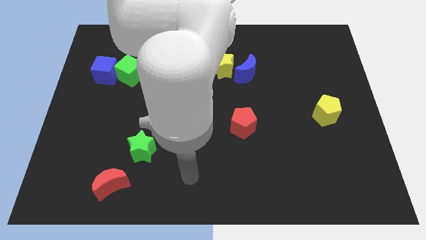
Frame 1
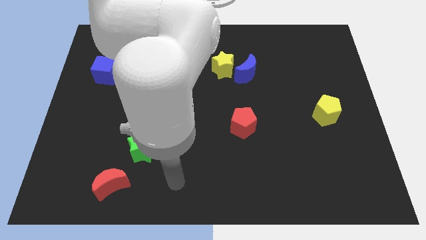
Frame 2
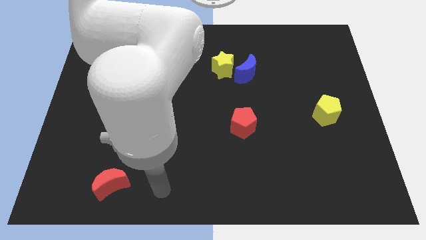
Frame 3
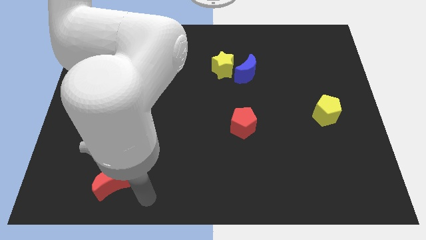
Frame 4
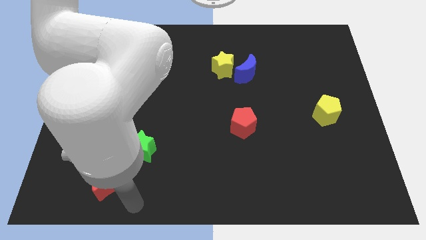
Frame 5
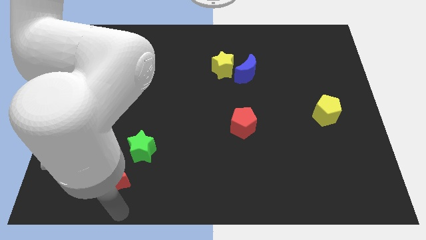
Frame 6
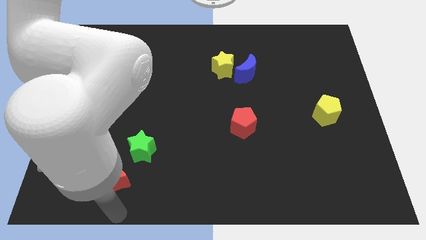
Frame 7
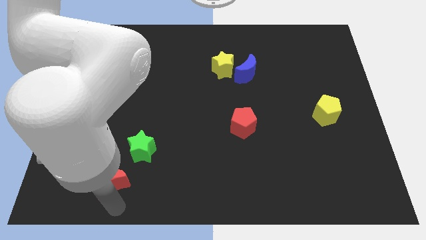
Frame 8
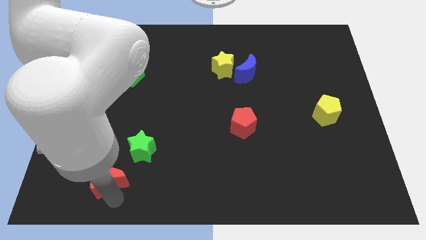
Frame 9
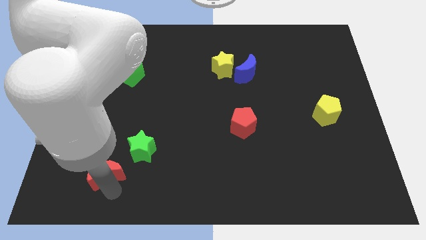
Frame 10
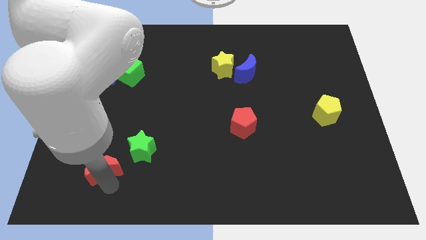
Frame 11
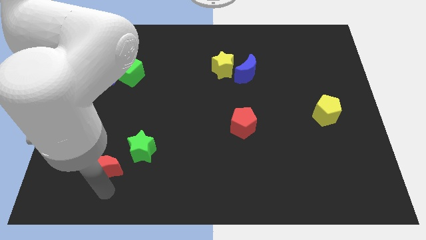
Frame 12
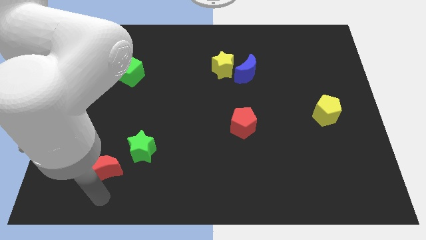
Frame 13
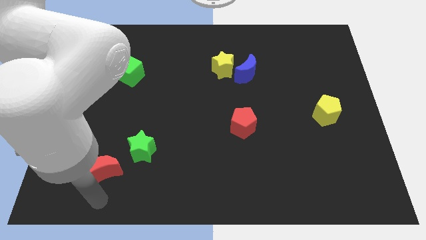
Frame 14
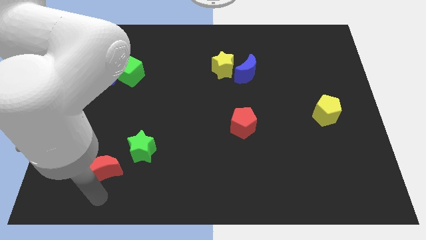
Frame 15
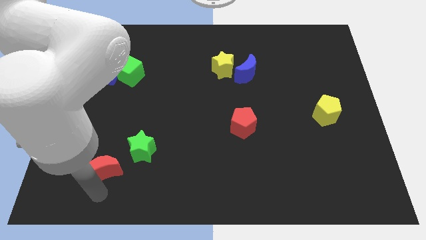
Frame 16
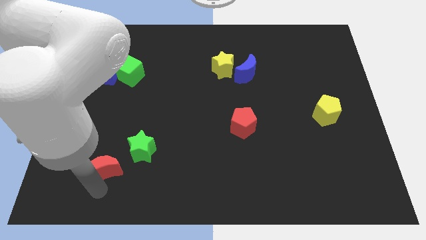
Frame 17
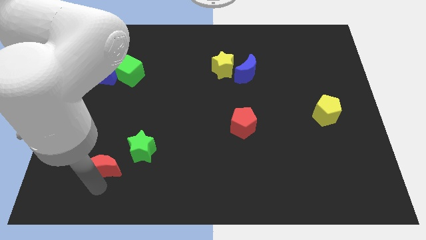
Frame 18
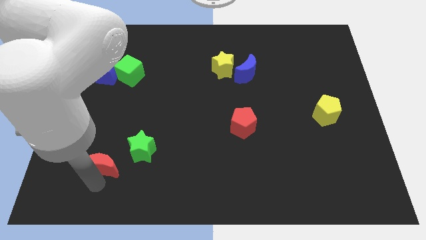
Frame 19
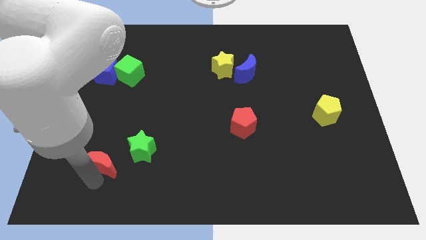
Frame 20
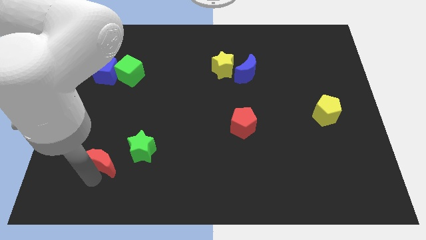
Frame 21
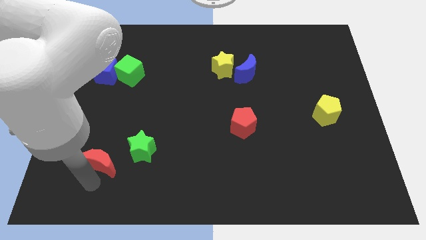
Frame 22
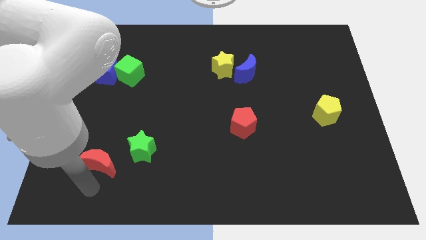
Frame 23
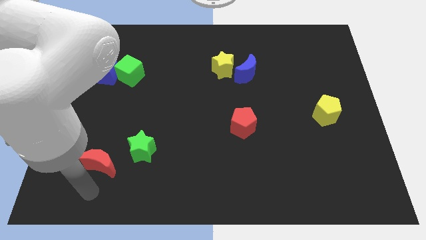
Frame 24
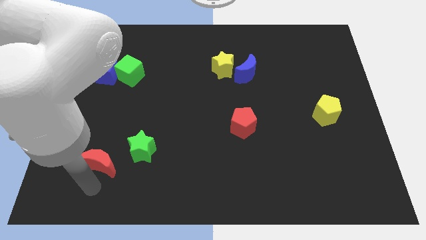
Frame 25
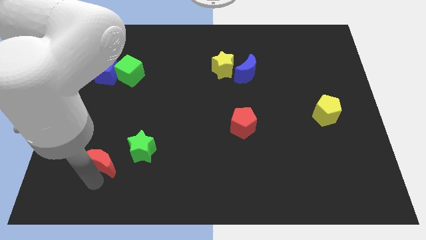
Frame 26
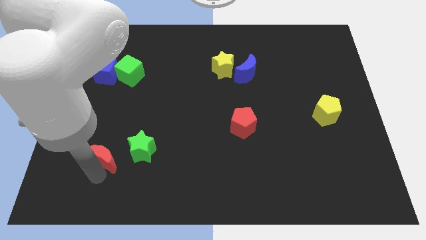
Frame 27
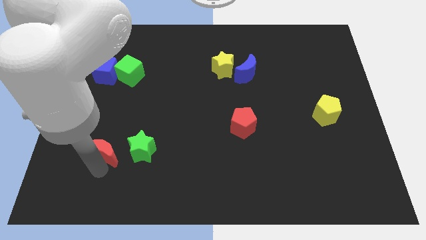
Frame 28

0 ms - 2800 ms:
move the red moon up a little bit

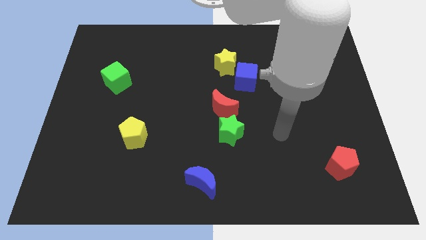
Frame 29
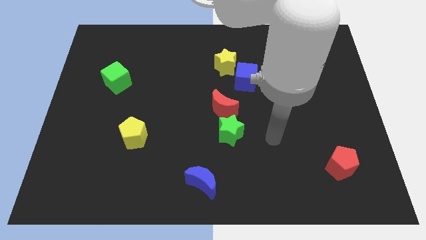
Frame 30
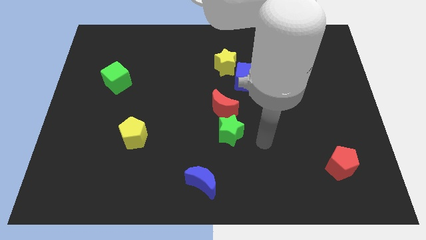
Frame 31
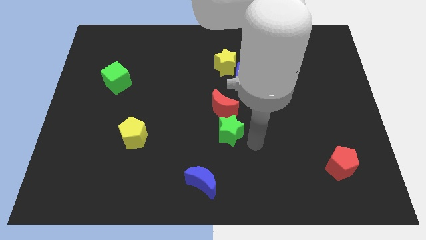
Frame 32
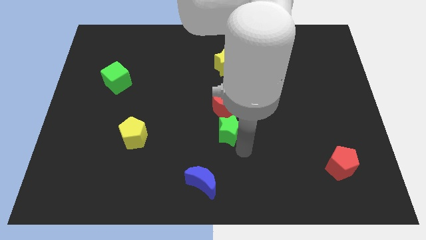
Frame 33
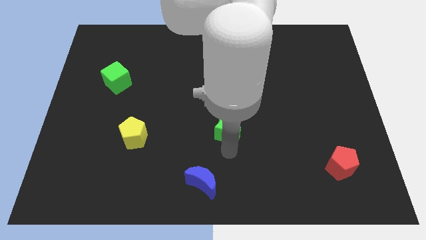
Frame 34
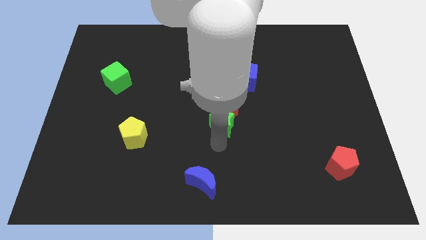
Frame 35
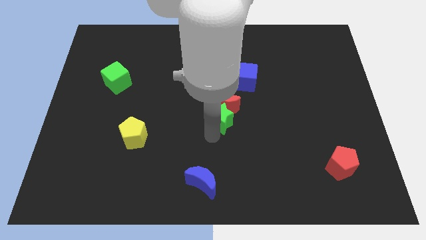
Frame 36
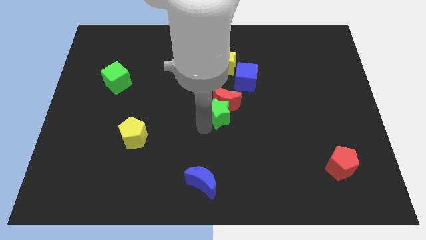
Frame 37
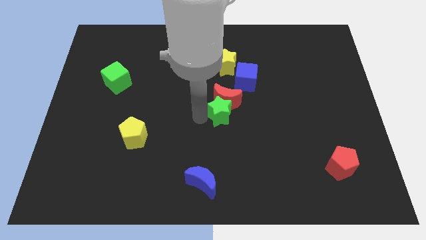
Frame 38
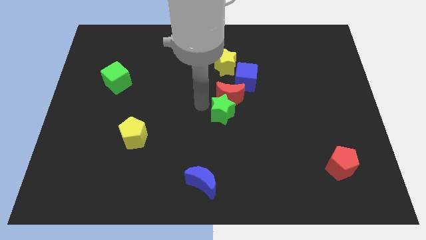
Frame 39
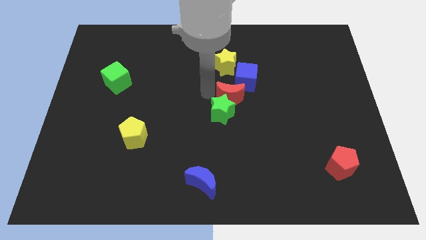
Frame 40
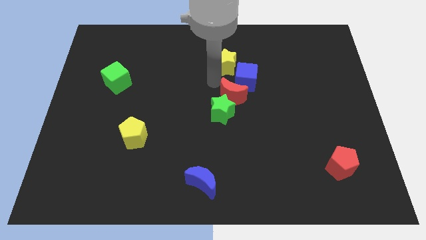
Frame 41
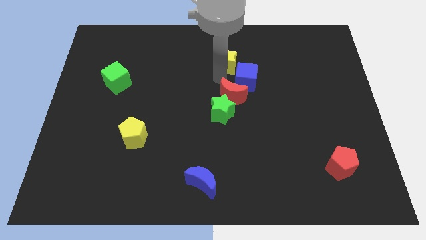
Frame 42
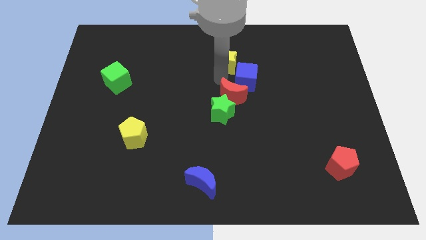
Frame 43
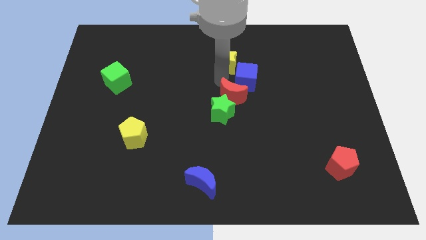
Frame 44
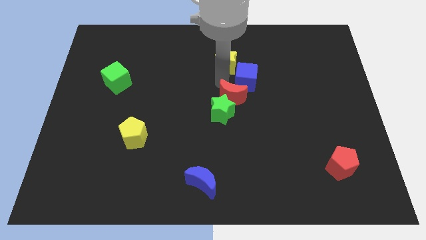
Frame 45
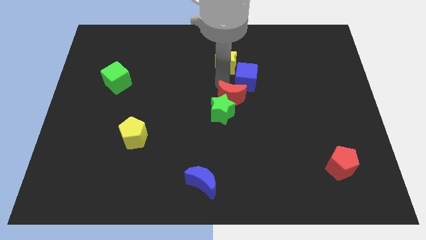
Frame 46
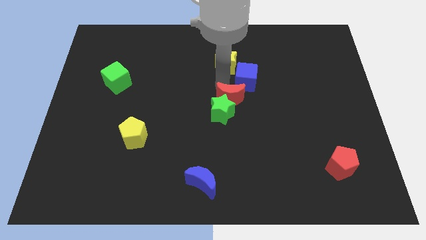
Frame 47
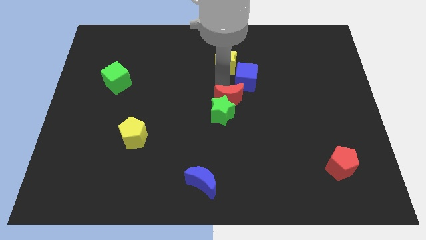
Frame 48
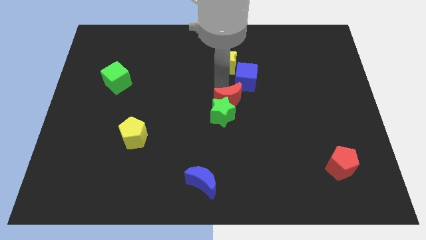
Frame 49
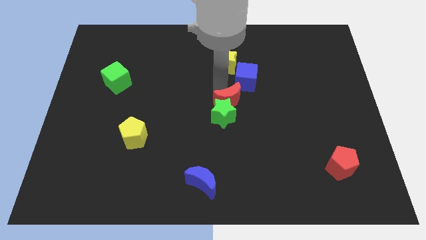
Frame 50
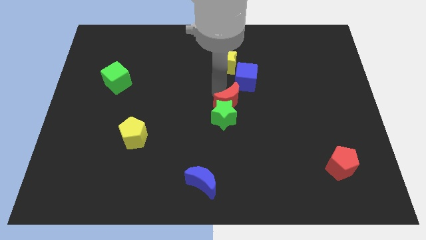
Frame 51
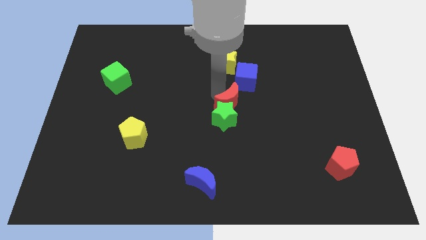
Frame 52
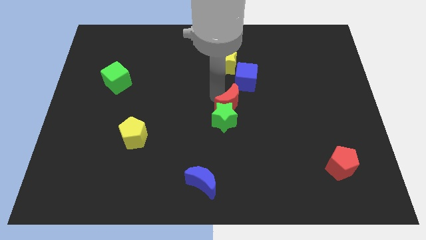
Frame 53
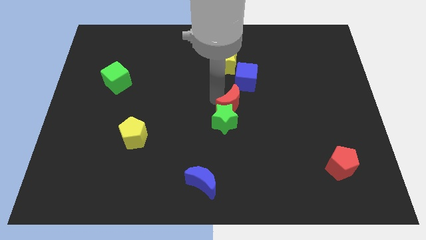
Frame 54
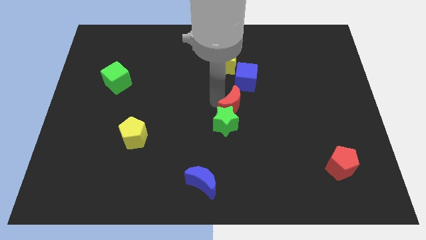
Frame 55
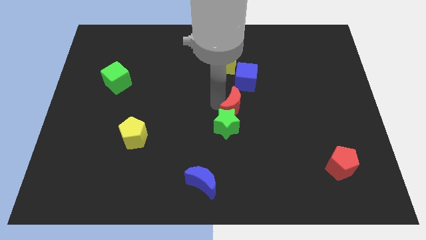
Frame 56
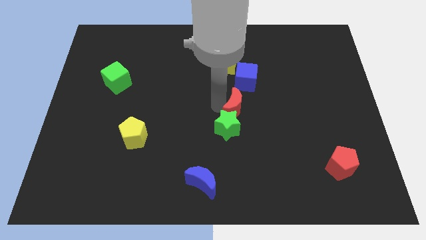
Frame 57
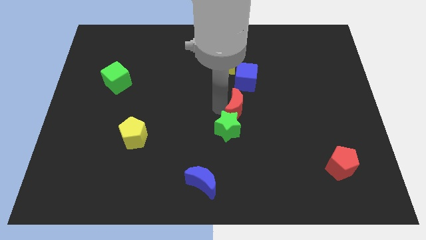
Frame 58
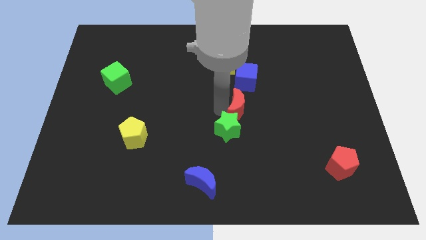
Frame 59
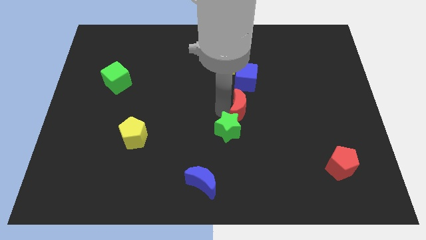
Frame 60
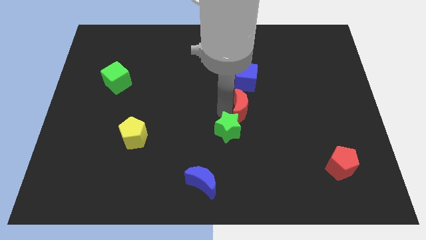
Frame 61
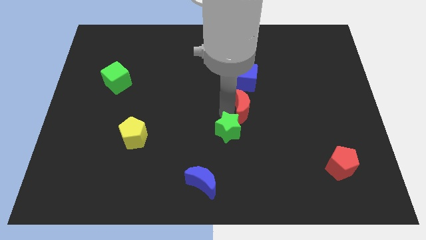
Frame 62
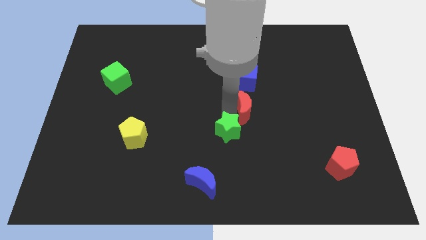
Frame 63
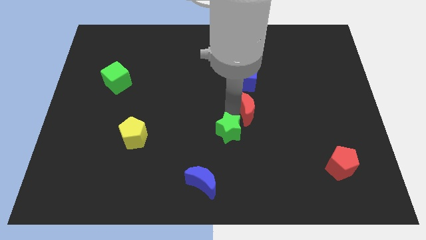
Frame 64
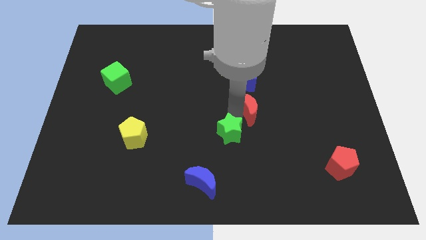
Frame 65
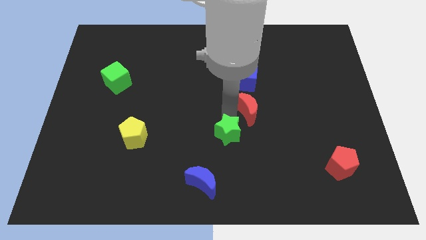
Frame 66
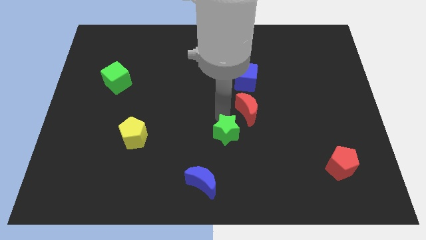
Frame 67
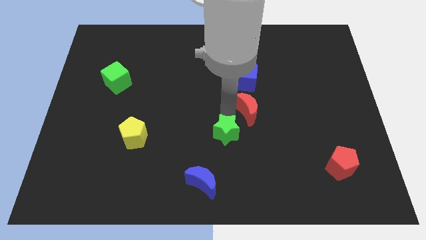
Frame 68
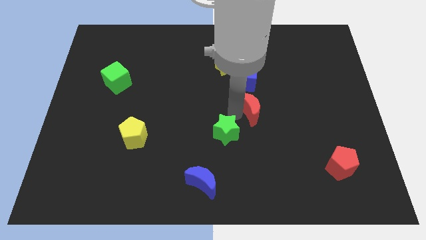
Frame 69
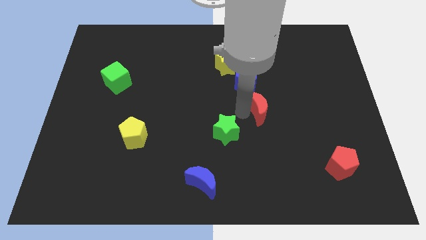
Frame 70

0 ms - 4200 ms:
slightly push the red moon to the right

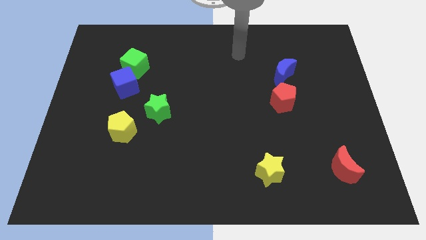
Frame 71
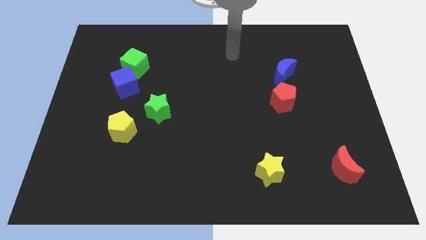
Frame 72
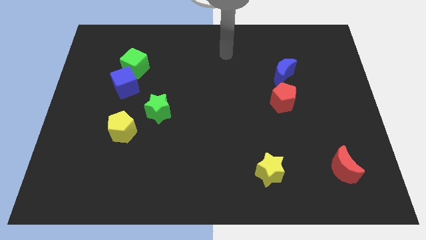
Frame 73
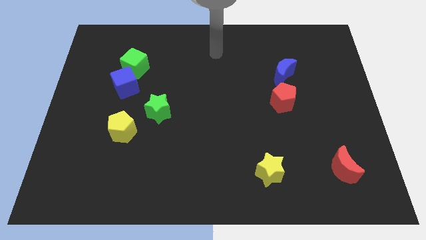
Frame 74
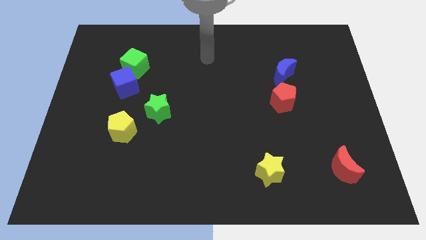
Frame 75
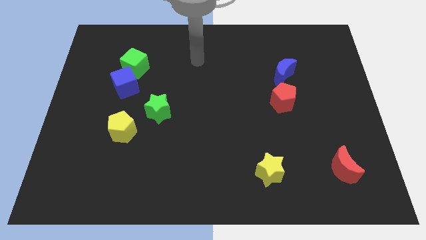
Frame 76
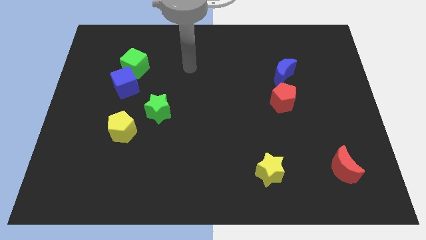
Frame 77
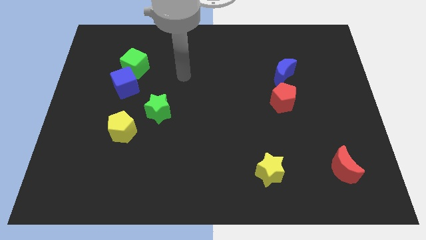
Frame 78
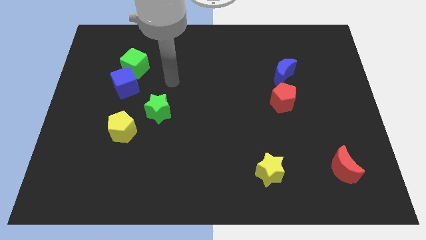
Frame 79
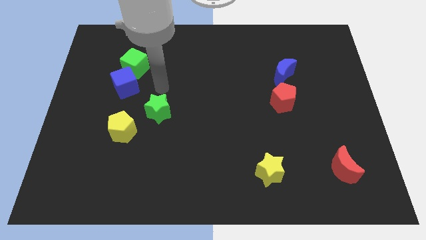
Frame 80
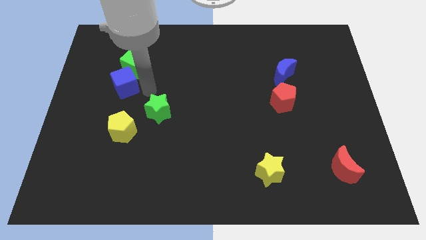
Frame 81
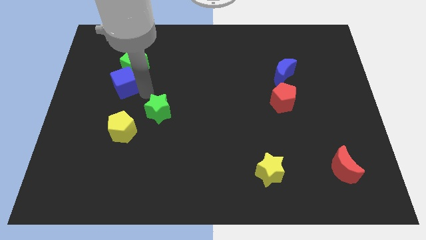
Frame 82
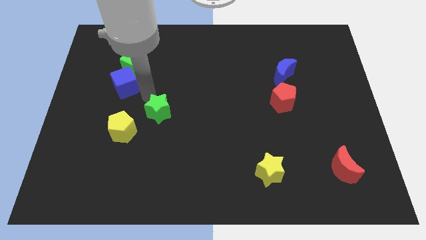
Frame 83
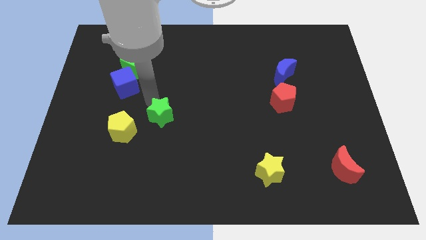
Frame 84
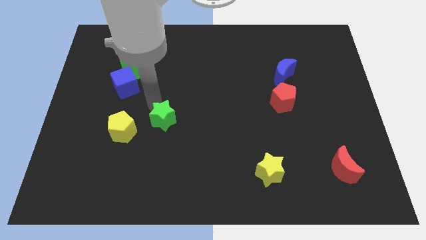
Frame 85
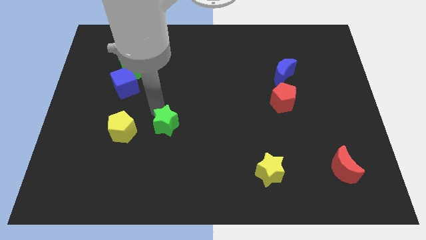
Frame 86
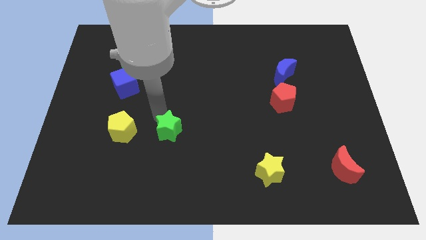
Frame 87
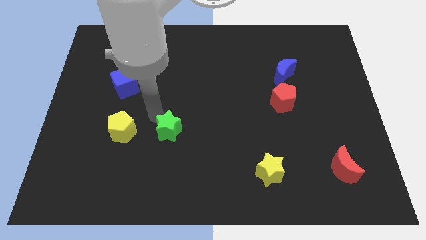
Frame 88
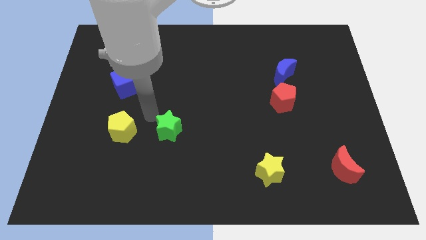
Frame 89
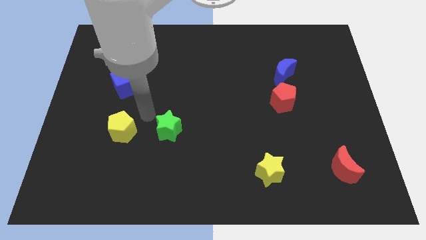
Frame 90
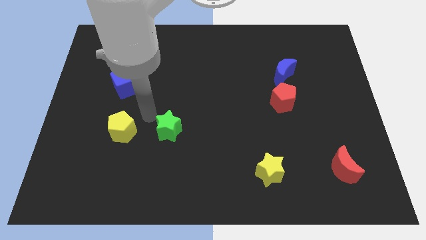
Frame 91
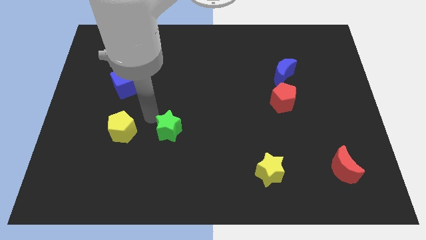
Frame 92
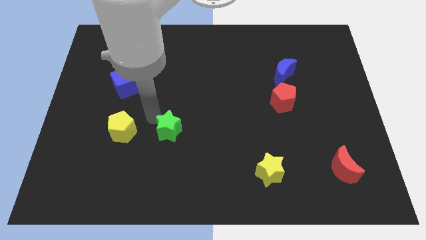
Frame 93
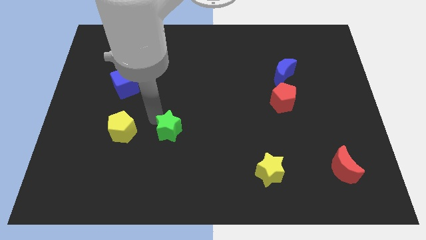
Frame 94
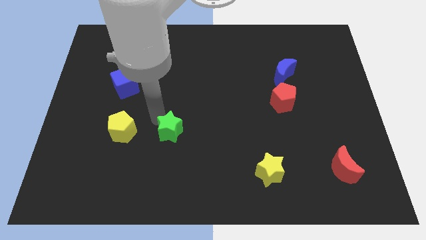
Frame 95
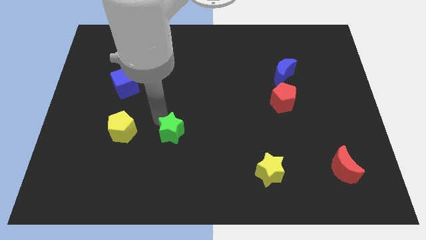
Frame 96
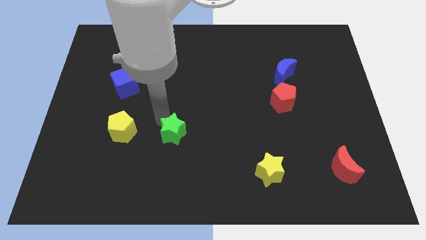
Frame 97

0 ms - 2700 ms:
push the green star a little down and right
